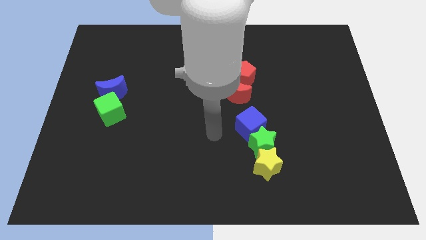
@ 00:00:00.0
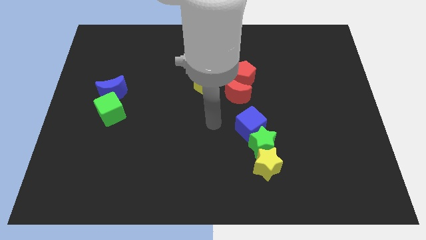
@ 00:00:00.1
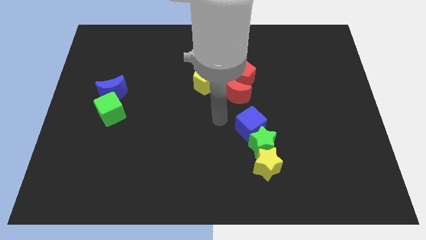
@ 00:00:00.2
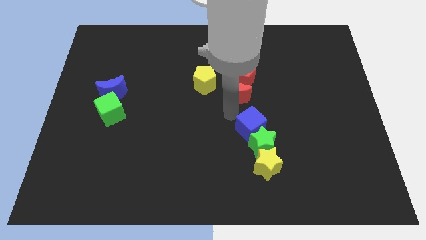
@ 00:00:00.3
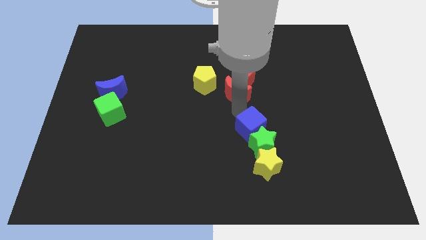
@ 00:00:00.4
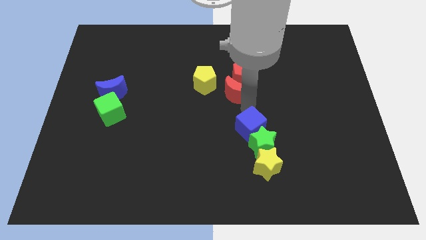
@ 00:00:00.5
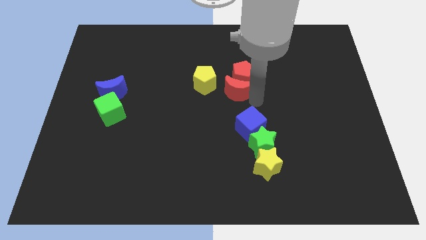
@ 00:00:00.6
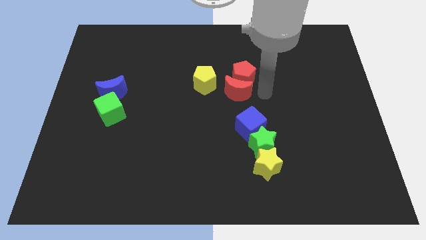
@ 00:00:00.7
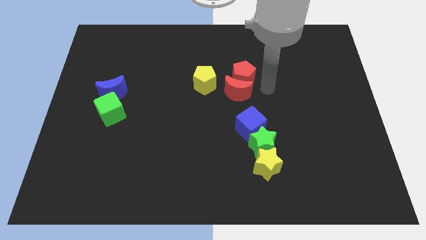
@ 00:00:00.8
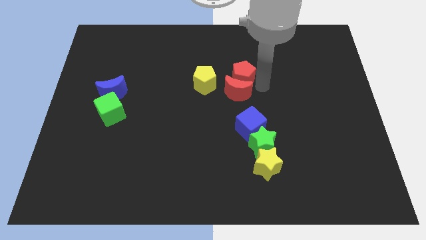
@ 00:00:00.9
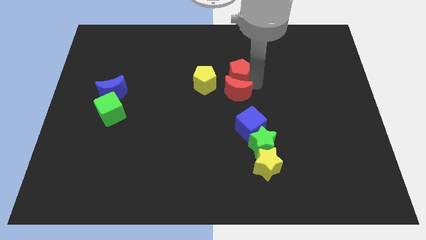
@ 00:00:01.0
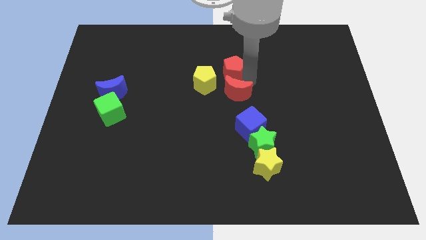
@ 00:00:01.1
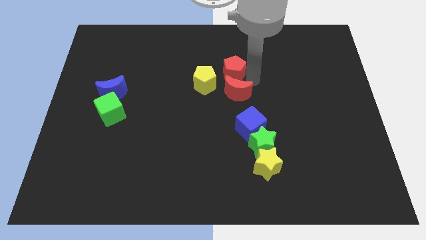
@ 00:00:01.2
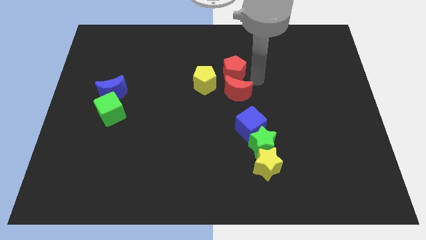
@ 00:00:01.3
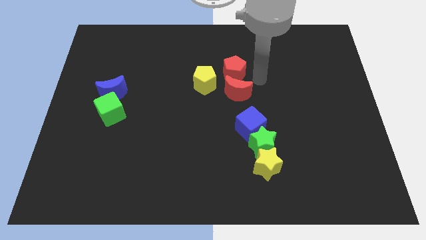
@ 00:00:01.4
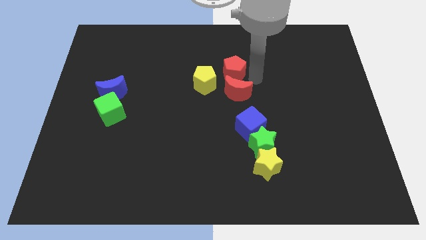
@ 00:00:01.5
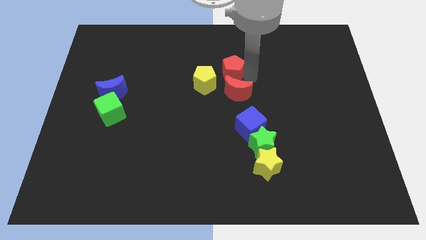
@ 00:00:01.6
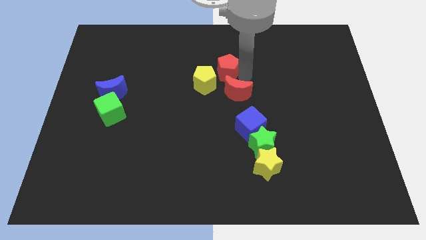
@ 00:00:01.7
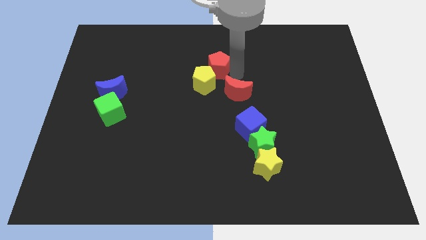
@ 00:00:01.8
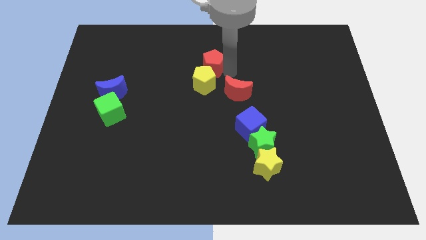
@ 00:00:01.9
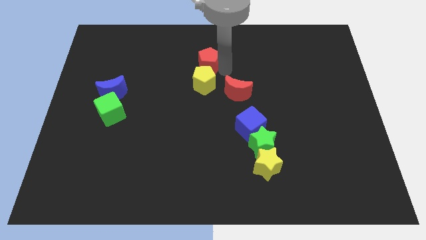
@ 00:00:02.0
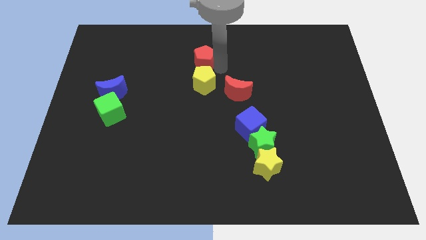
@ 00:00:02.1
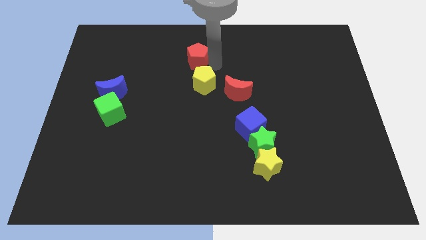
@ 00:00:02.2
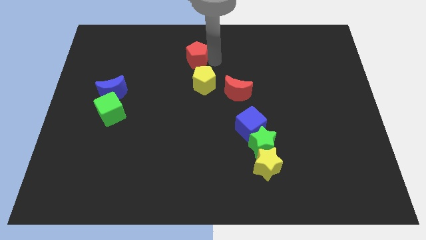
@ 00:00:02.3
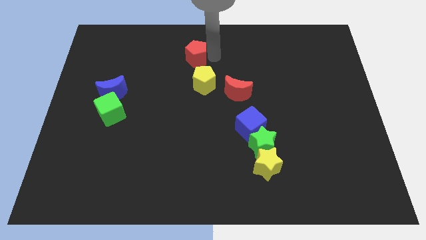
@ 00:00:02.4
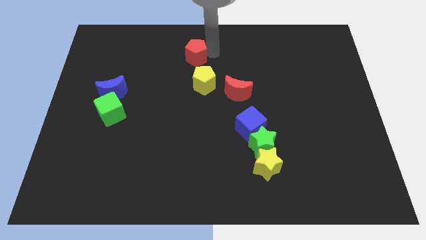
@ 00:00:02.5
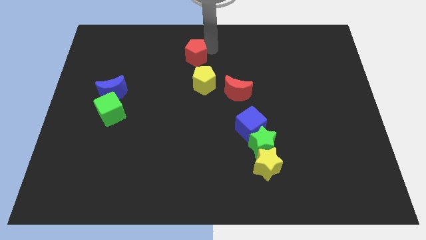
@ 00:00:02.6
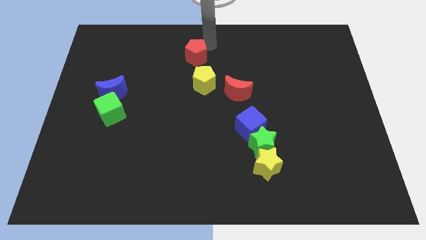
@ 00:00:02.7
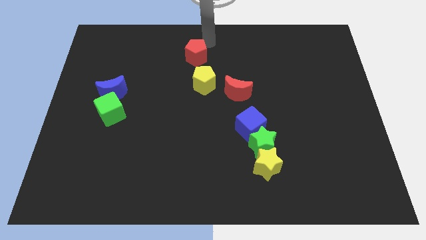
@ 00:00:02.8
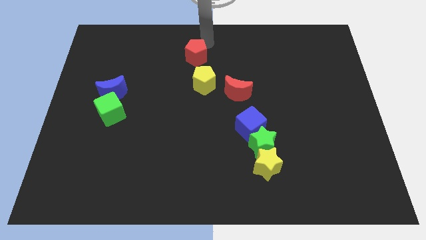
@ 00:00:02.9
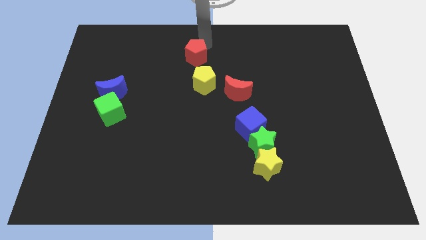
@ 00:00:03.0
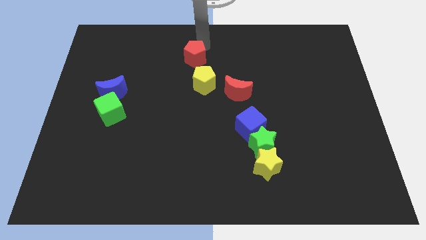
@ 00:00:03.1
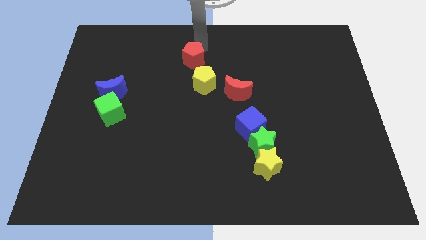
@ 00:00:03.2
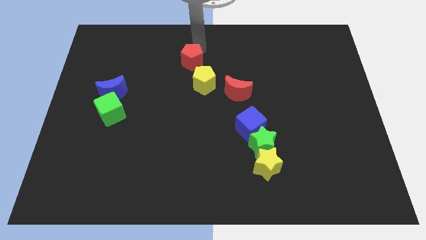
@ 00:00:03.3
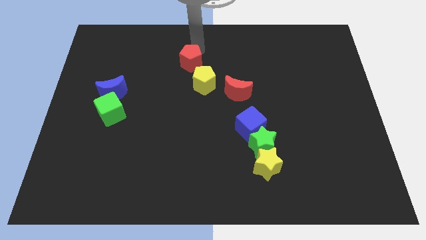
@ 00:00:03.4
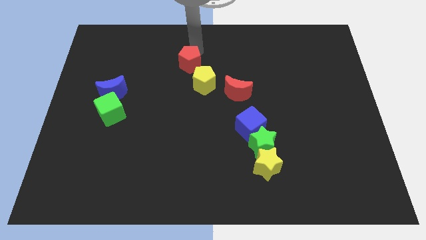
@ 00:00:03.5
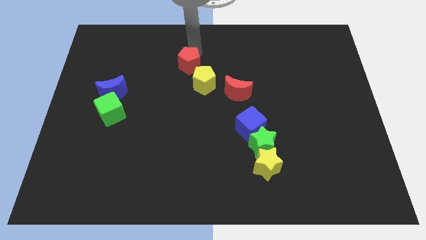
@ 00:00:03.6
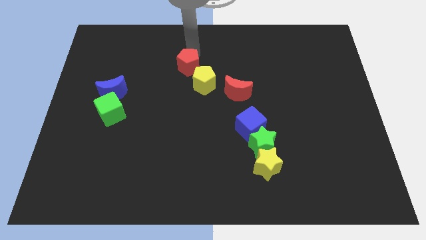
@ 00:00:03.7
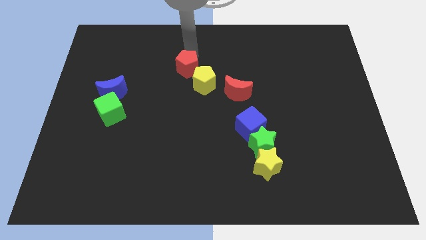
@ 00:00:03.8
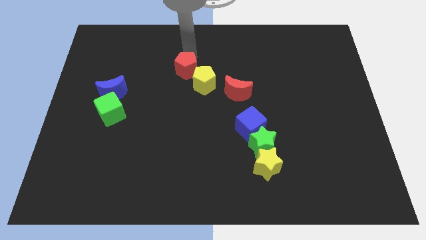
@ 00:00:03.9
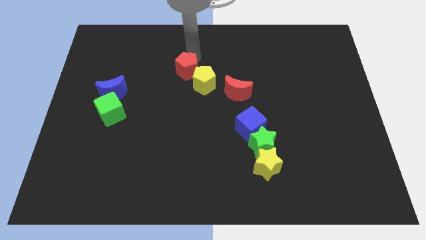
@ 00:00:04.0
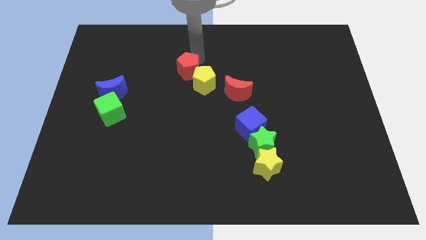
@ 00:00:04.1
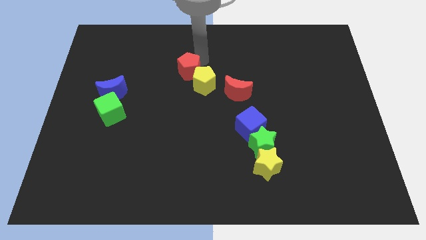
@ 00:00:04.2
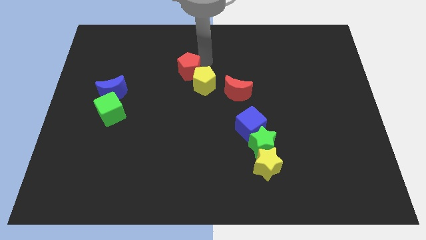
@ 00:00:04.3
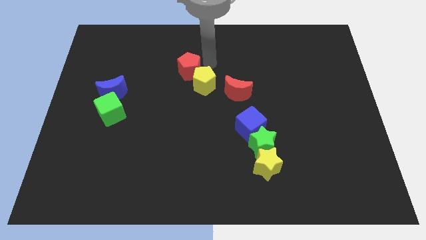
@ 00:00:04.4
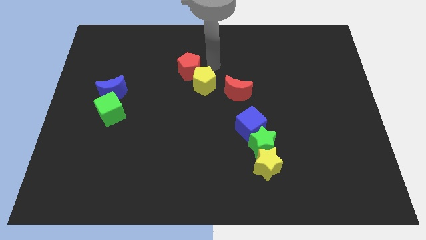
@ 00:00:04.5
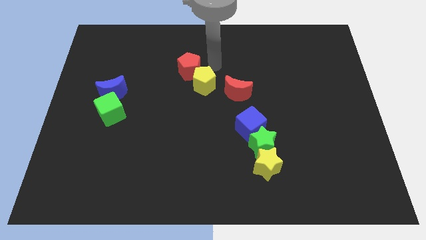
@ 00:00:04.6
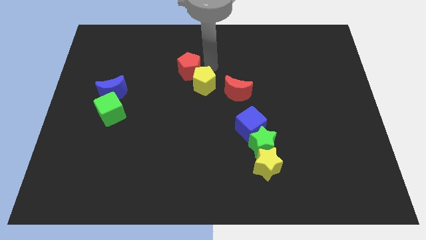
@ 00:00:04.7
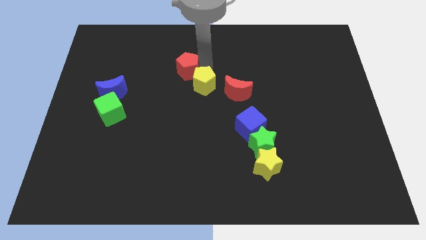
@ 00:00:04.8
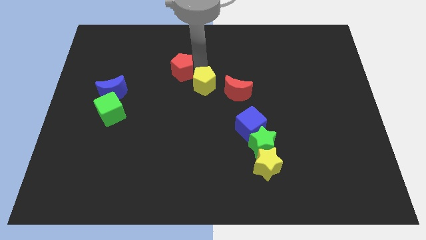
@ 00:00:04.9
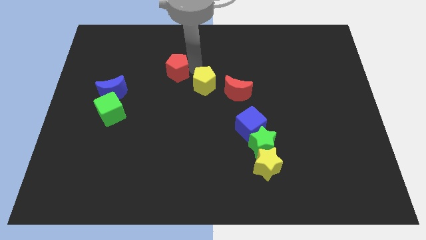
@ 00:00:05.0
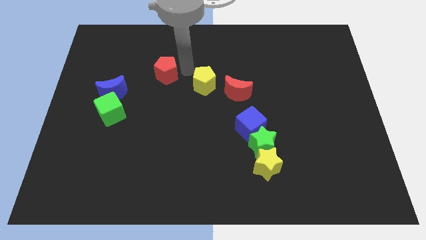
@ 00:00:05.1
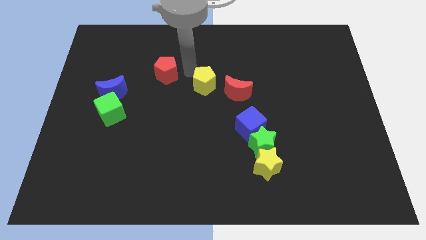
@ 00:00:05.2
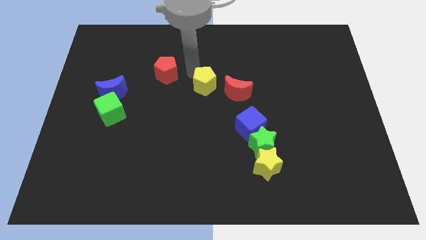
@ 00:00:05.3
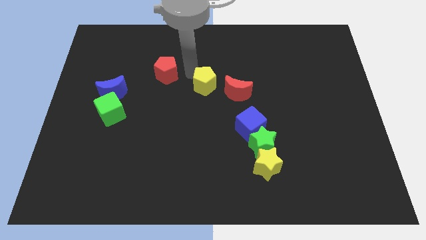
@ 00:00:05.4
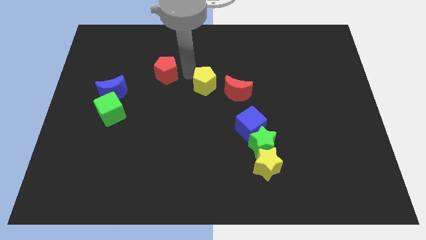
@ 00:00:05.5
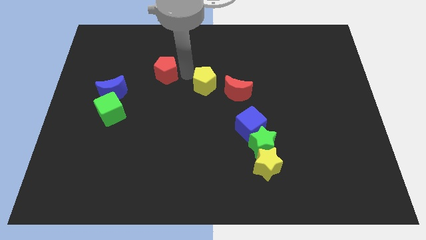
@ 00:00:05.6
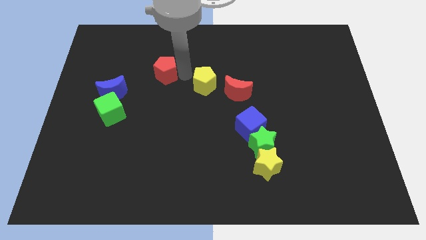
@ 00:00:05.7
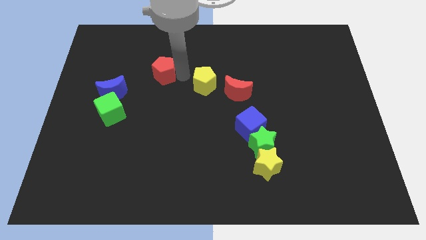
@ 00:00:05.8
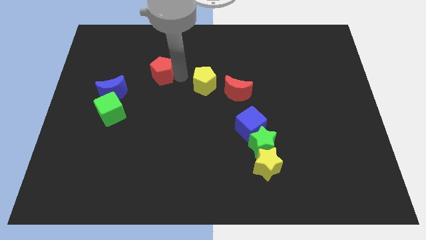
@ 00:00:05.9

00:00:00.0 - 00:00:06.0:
slide the red pentagon left

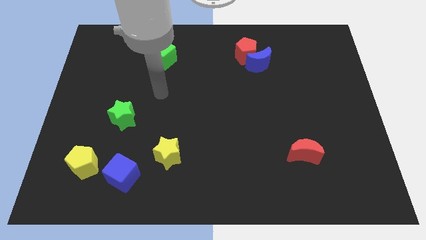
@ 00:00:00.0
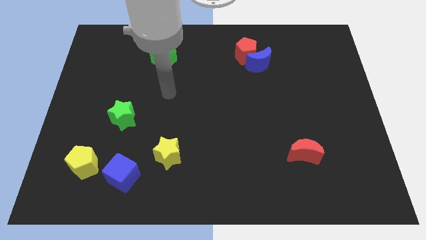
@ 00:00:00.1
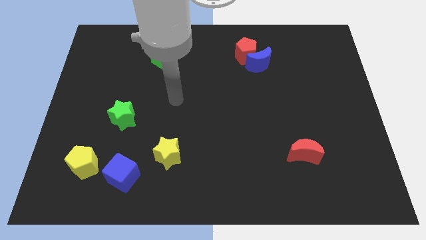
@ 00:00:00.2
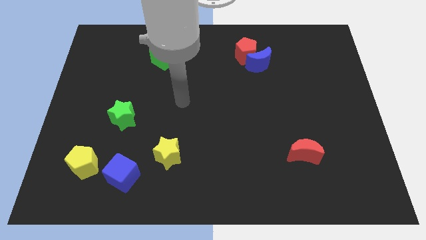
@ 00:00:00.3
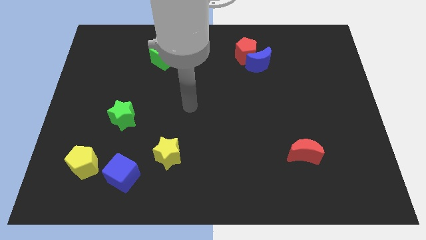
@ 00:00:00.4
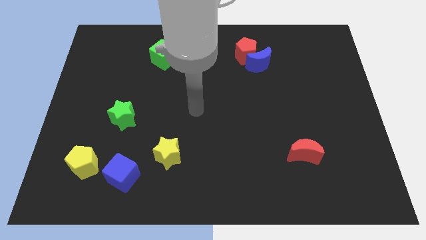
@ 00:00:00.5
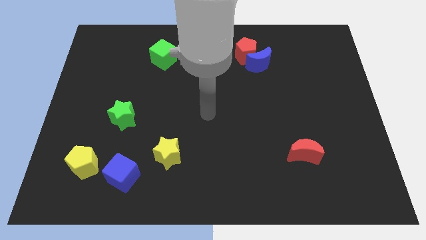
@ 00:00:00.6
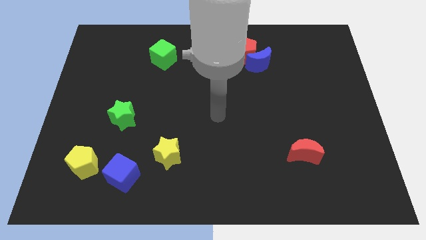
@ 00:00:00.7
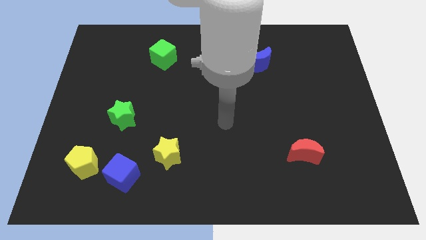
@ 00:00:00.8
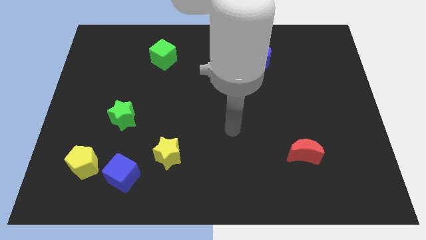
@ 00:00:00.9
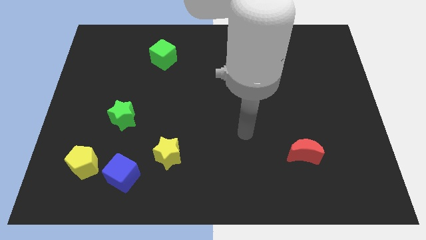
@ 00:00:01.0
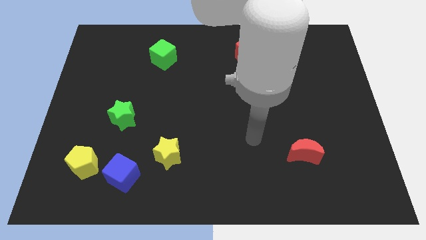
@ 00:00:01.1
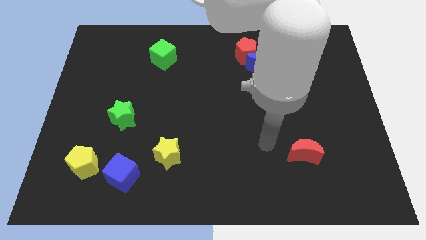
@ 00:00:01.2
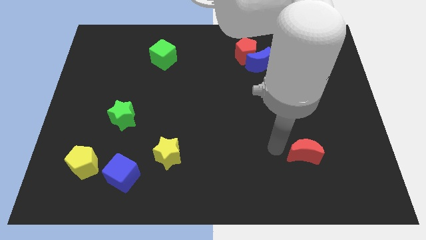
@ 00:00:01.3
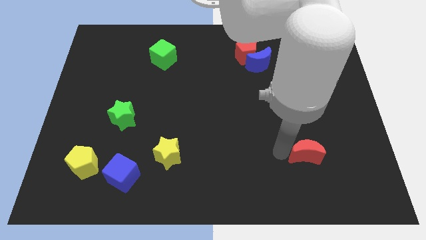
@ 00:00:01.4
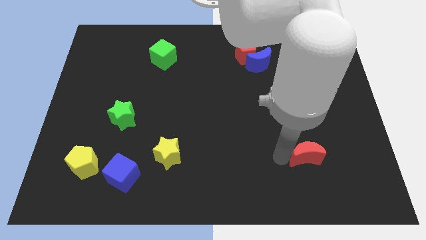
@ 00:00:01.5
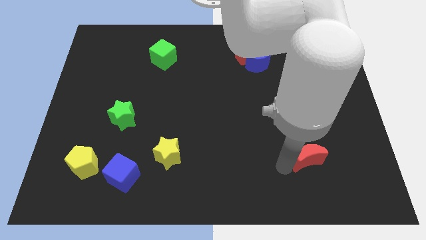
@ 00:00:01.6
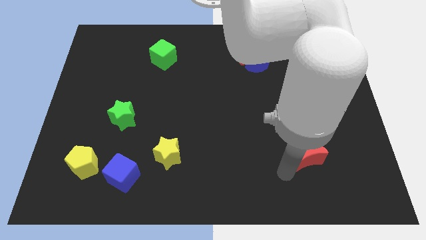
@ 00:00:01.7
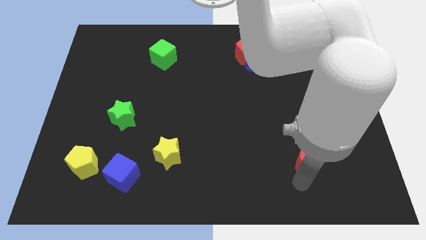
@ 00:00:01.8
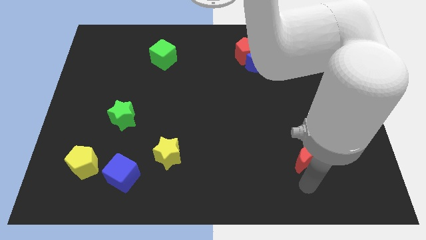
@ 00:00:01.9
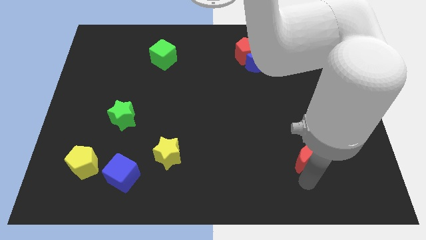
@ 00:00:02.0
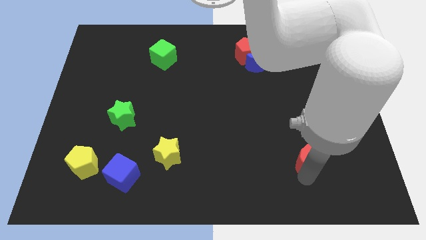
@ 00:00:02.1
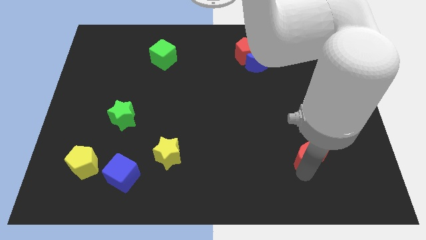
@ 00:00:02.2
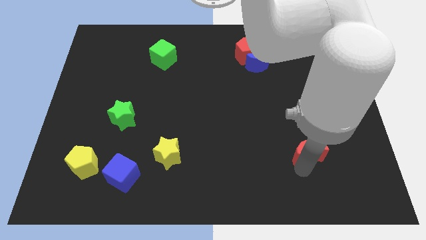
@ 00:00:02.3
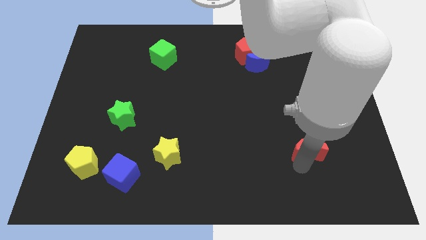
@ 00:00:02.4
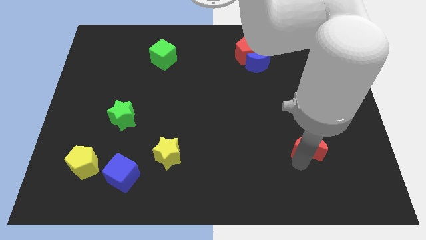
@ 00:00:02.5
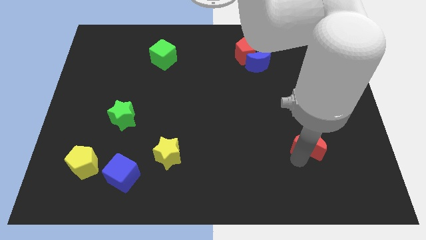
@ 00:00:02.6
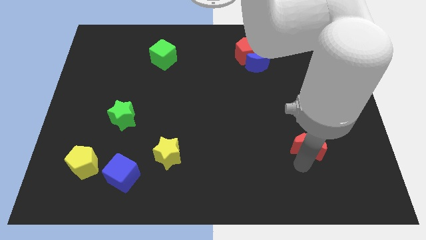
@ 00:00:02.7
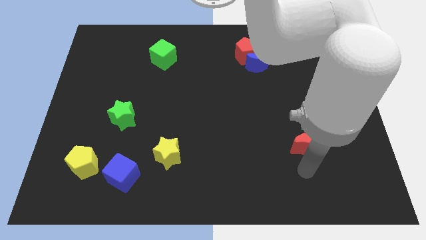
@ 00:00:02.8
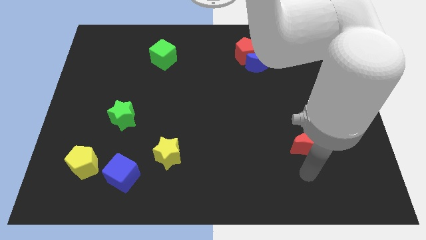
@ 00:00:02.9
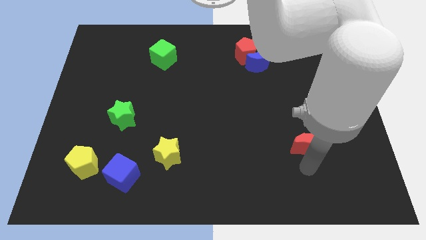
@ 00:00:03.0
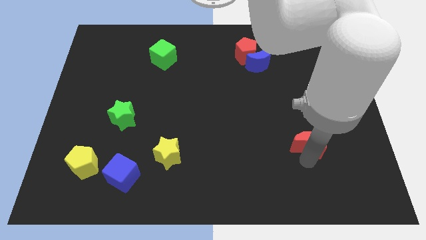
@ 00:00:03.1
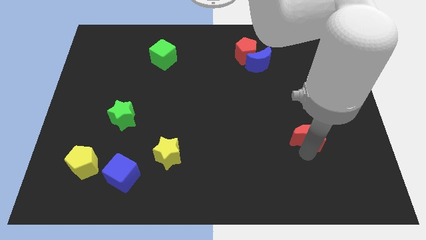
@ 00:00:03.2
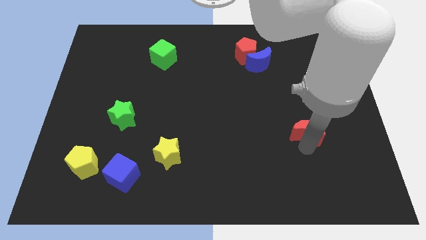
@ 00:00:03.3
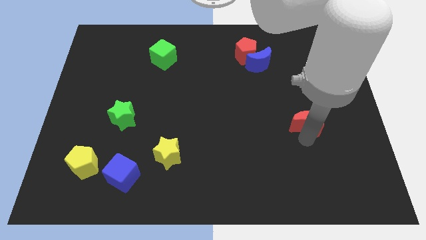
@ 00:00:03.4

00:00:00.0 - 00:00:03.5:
slide the red moon up a bit
